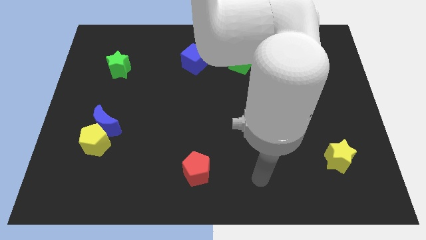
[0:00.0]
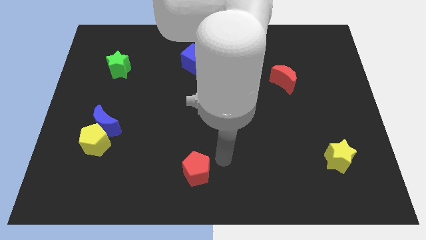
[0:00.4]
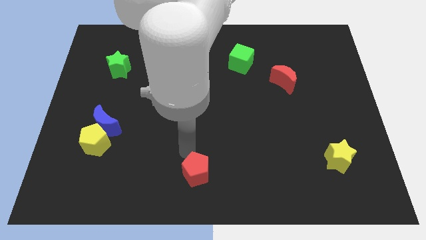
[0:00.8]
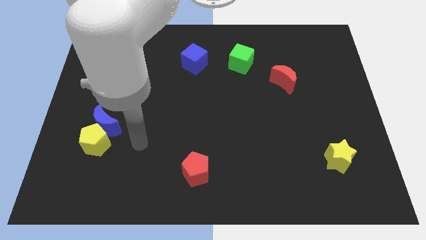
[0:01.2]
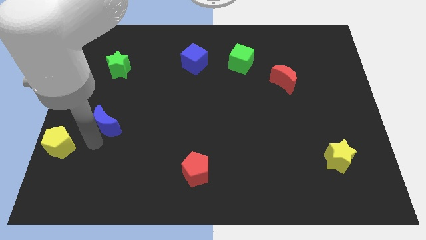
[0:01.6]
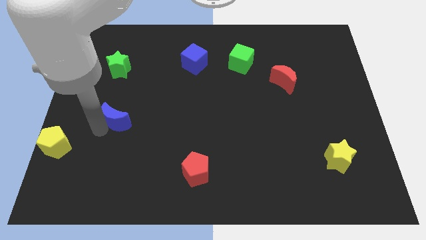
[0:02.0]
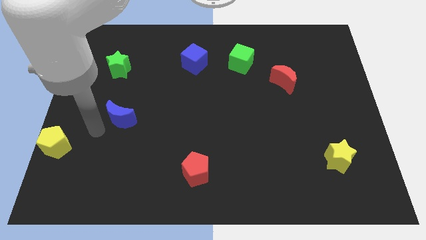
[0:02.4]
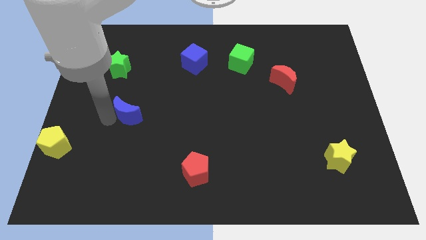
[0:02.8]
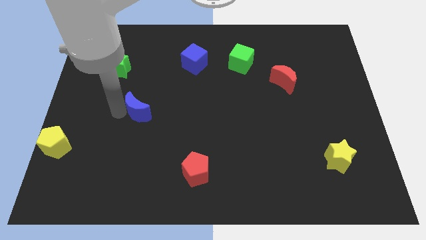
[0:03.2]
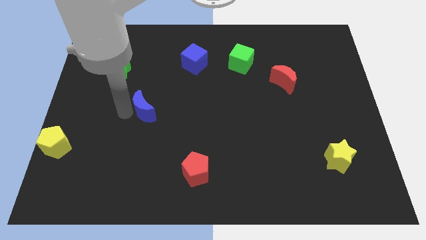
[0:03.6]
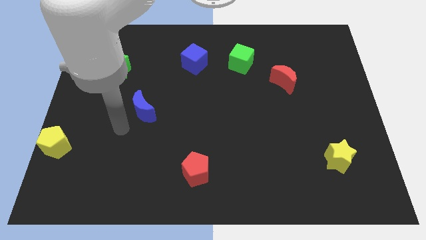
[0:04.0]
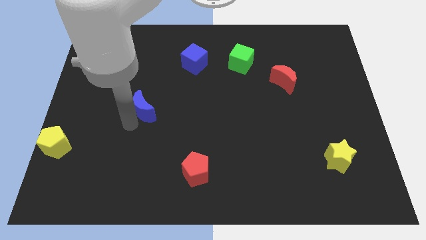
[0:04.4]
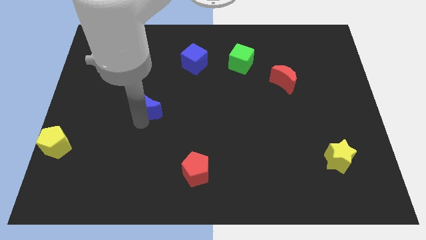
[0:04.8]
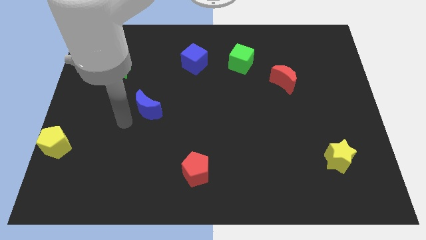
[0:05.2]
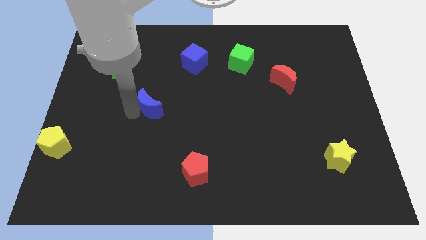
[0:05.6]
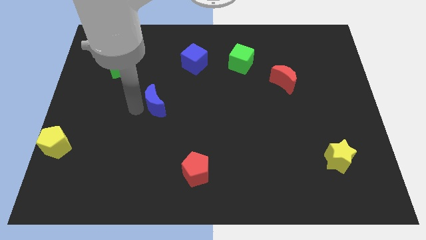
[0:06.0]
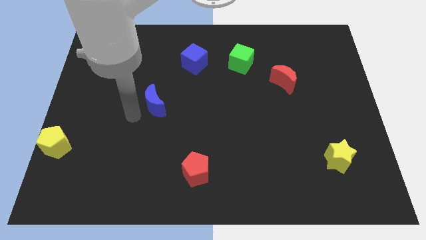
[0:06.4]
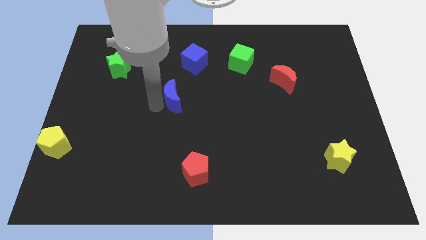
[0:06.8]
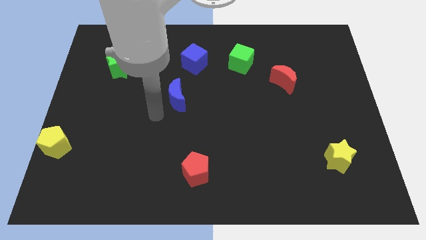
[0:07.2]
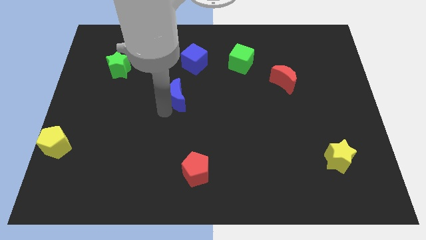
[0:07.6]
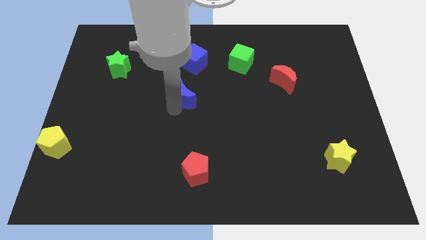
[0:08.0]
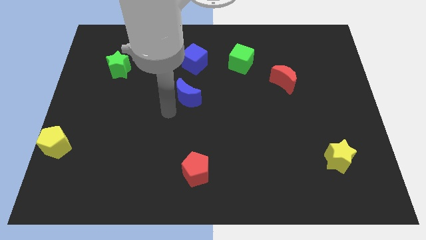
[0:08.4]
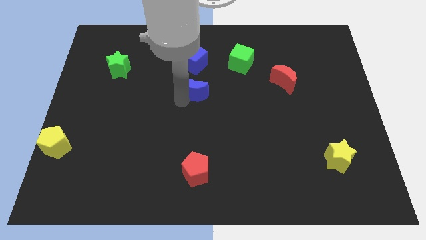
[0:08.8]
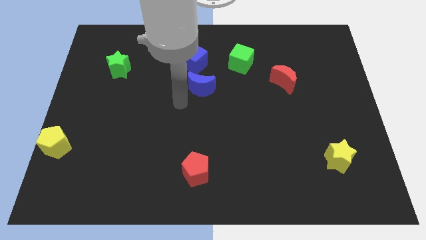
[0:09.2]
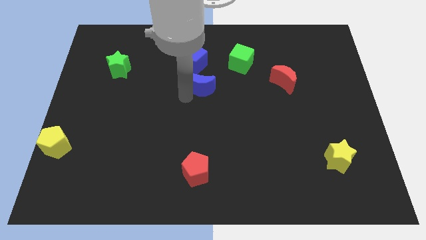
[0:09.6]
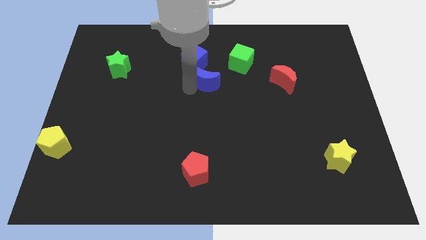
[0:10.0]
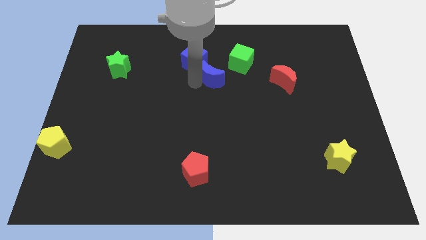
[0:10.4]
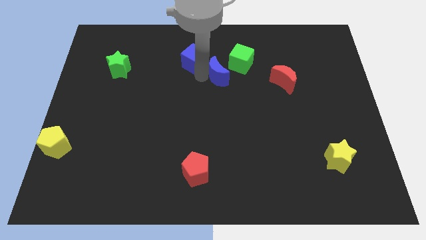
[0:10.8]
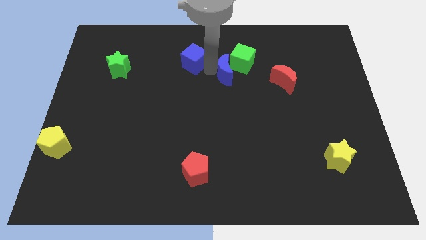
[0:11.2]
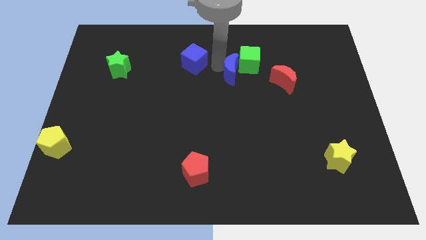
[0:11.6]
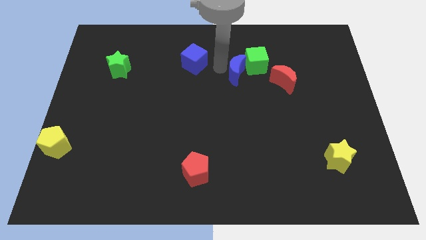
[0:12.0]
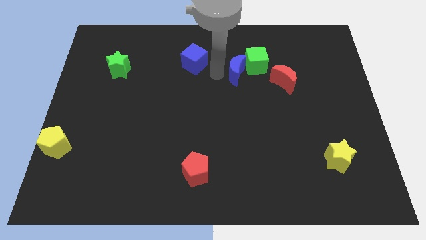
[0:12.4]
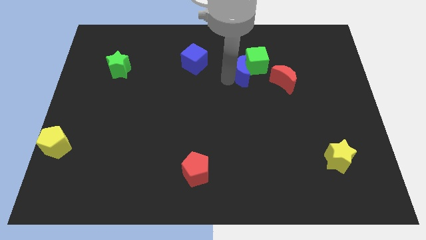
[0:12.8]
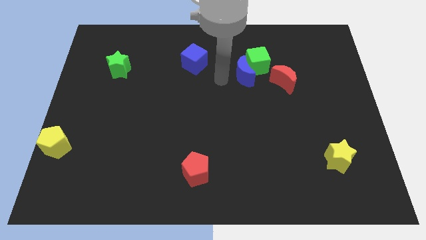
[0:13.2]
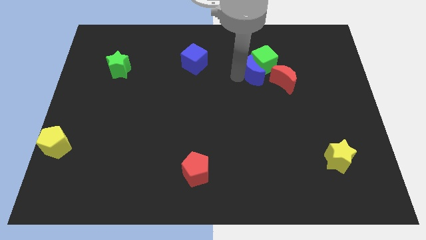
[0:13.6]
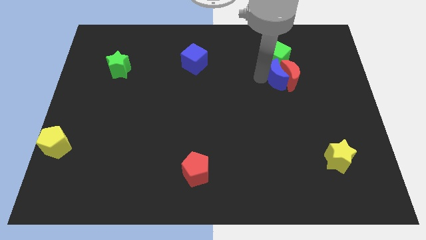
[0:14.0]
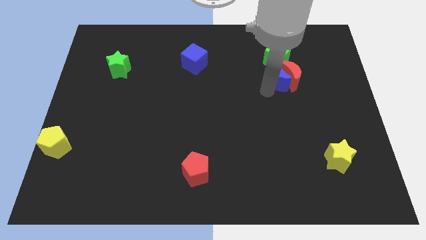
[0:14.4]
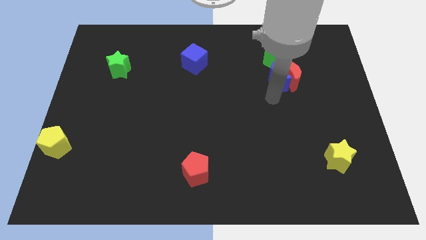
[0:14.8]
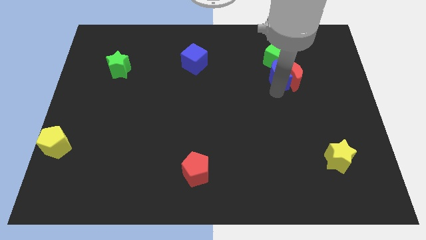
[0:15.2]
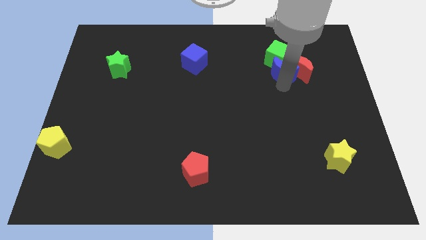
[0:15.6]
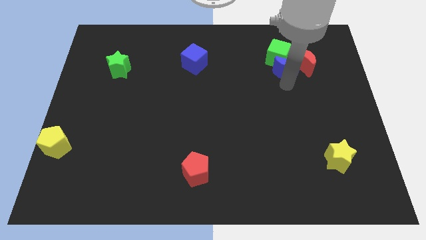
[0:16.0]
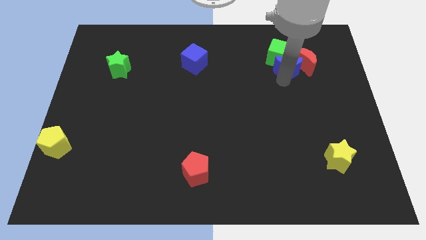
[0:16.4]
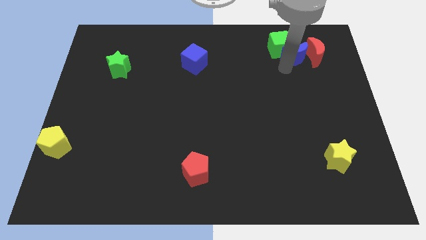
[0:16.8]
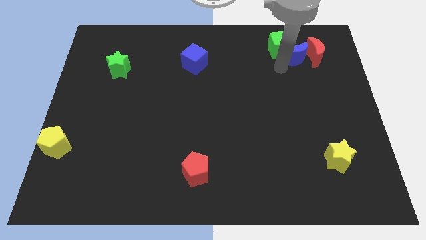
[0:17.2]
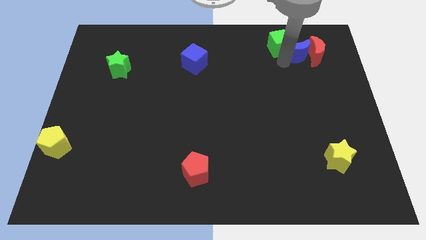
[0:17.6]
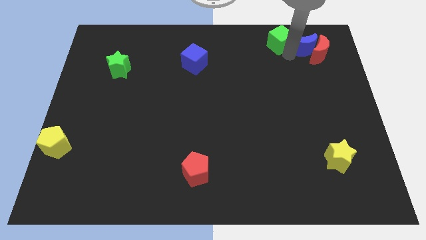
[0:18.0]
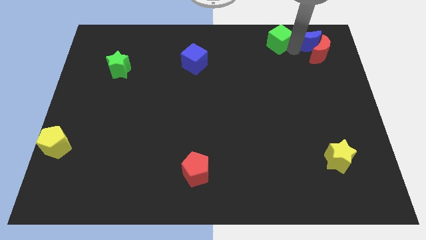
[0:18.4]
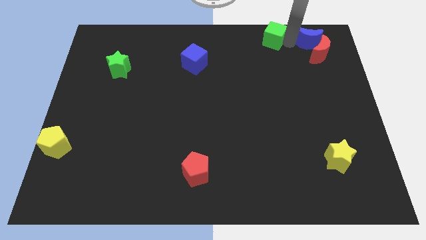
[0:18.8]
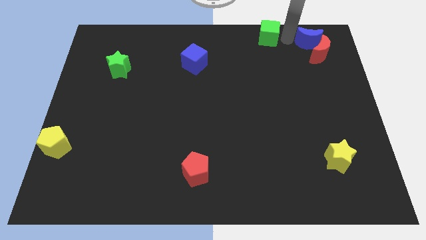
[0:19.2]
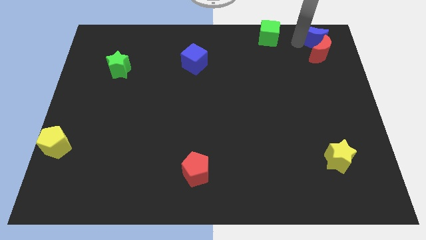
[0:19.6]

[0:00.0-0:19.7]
push the blue moon to the top right

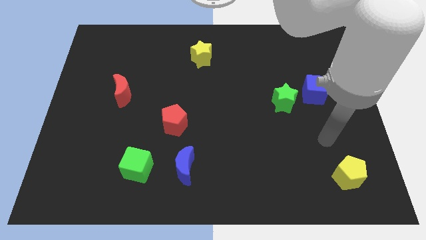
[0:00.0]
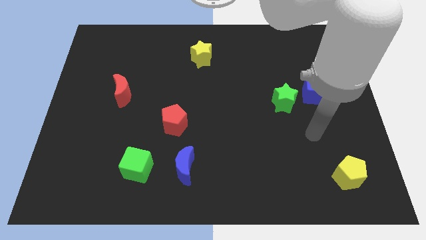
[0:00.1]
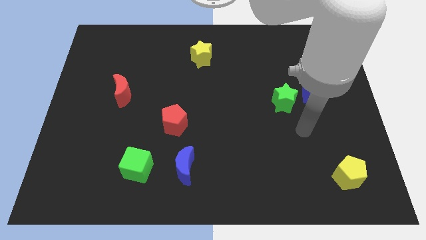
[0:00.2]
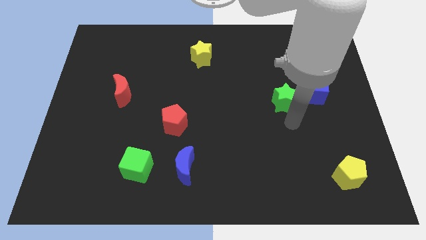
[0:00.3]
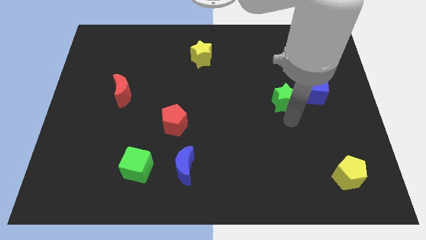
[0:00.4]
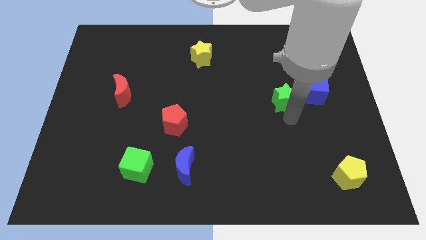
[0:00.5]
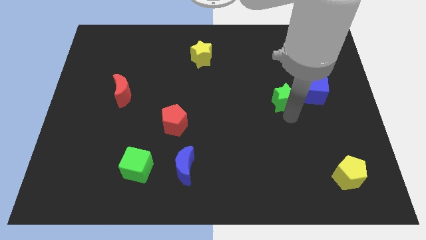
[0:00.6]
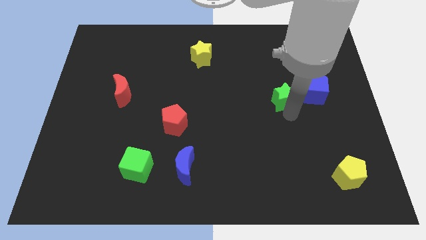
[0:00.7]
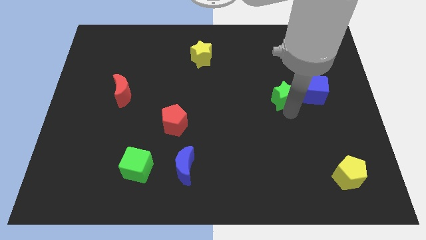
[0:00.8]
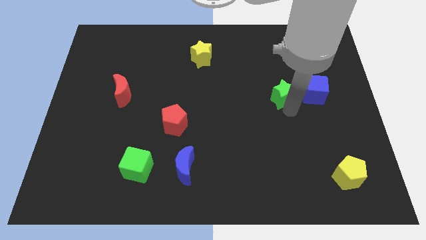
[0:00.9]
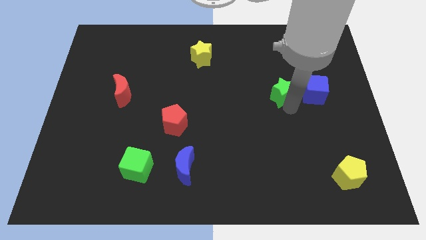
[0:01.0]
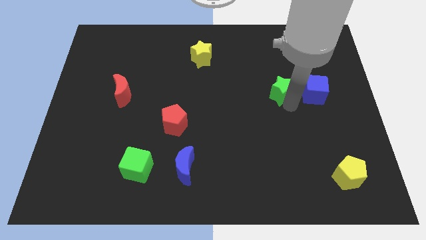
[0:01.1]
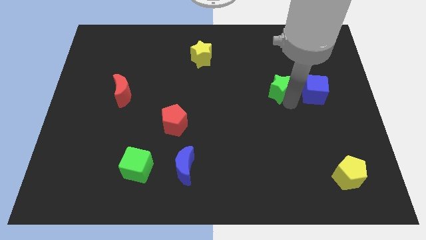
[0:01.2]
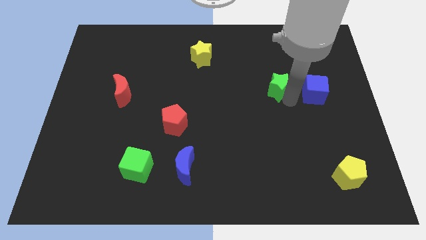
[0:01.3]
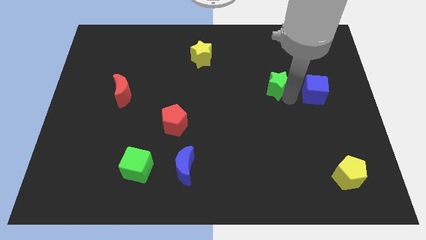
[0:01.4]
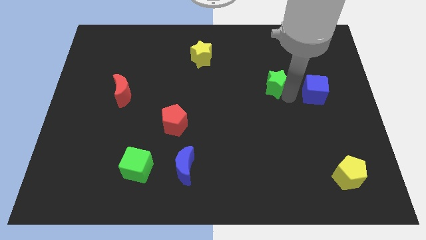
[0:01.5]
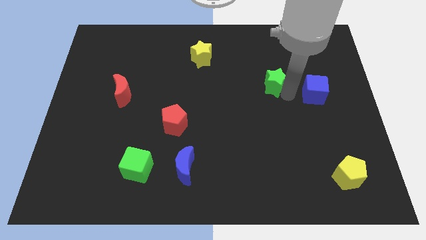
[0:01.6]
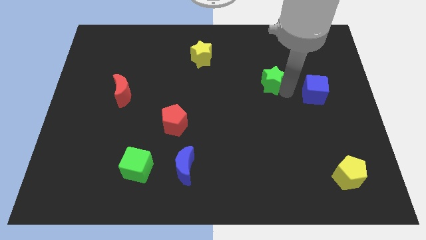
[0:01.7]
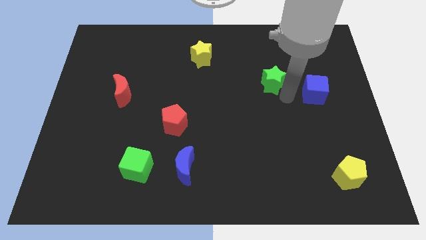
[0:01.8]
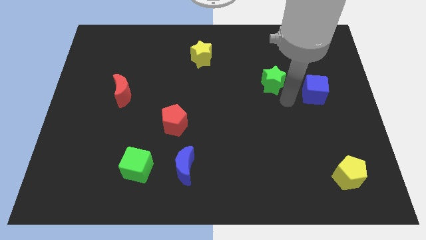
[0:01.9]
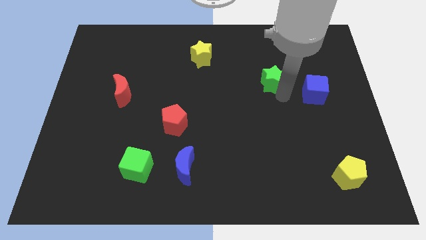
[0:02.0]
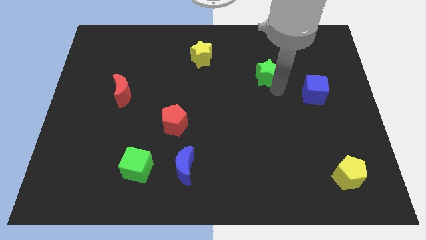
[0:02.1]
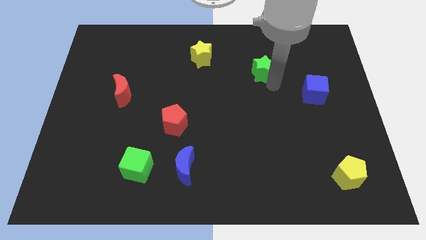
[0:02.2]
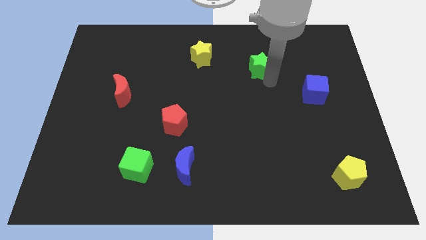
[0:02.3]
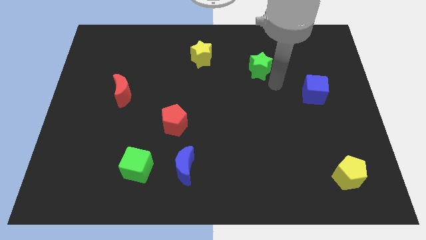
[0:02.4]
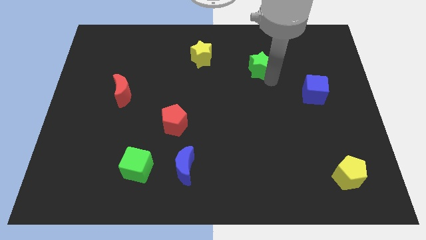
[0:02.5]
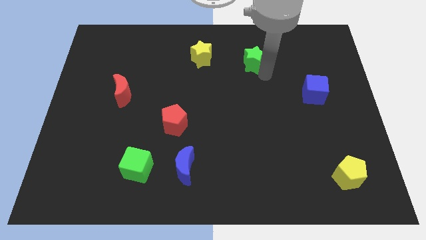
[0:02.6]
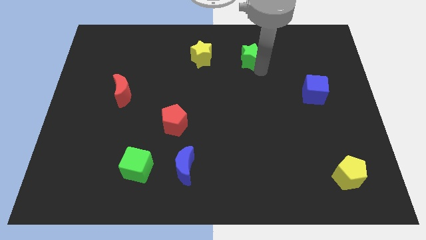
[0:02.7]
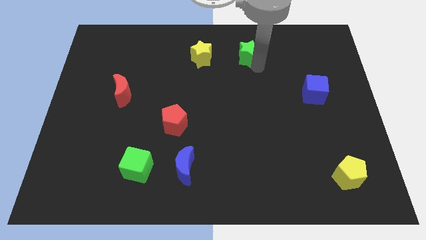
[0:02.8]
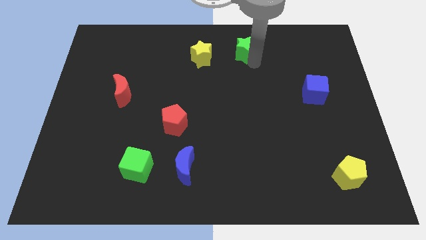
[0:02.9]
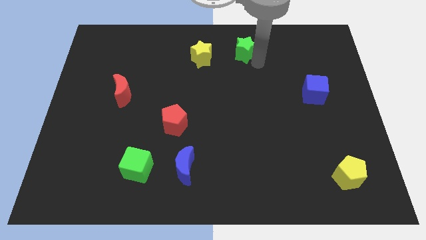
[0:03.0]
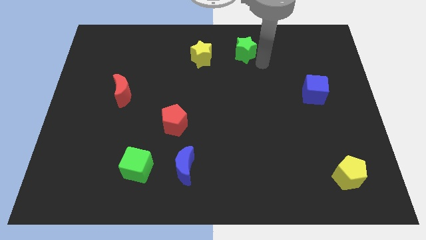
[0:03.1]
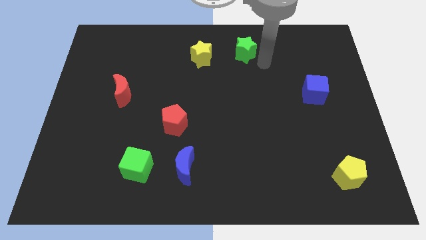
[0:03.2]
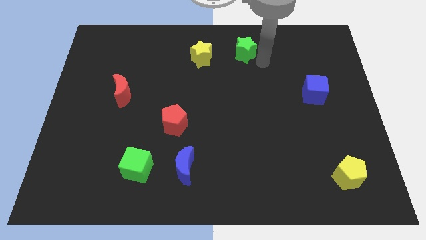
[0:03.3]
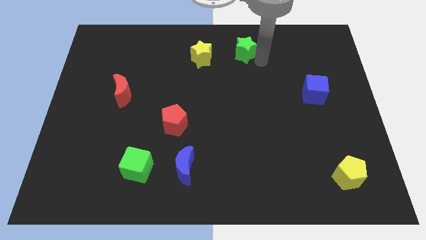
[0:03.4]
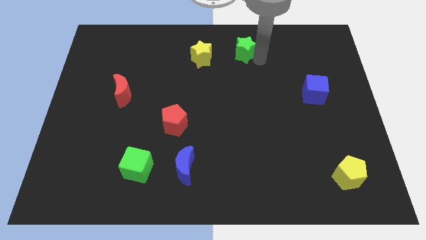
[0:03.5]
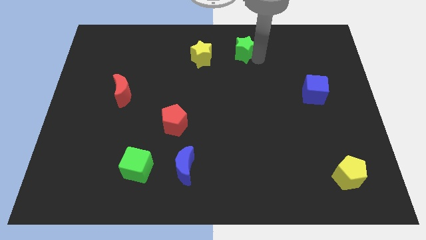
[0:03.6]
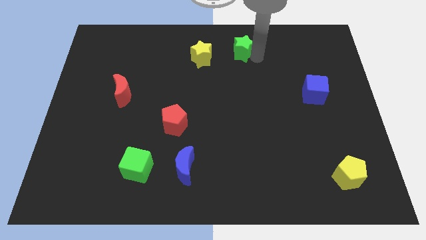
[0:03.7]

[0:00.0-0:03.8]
push the green star to the top side
